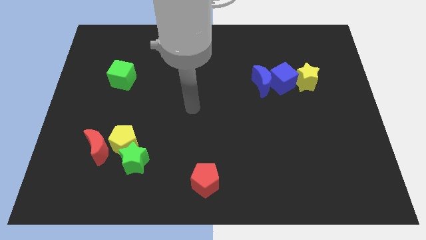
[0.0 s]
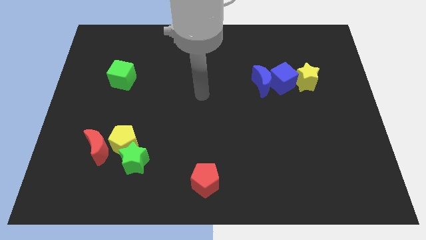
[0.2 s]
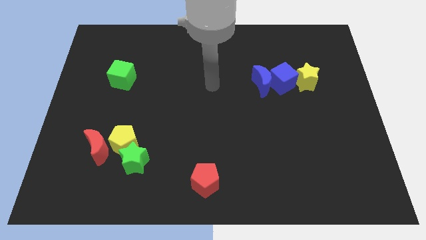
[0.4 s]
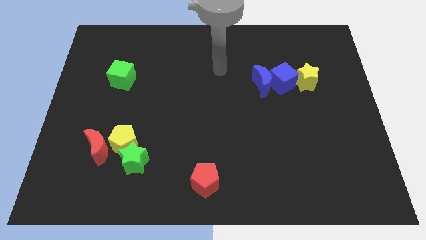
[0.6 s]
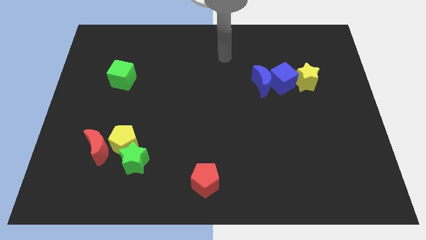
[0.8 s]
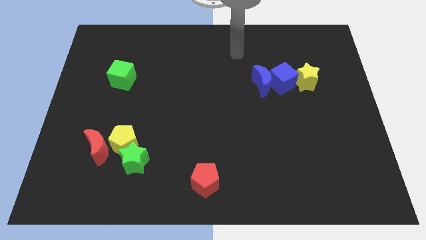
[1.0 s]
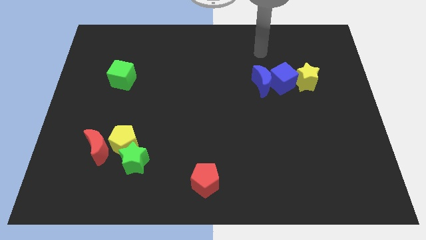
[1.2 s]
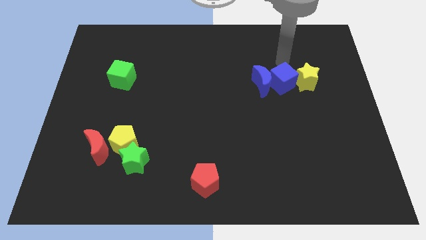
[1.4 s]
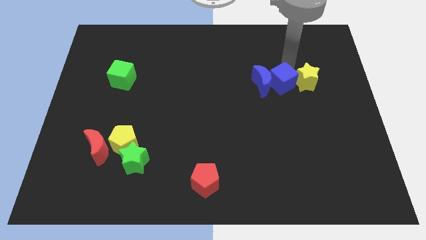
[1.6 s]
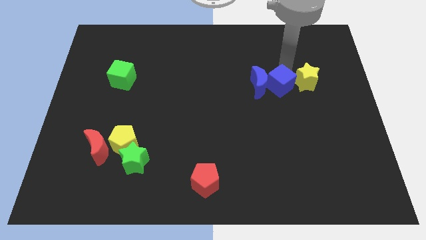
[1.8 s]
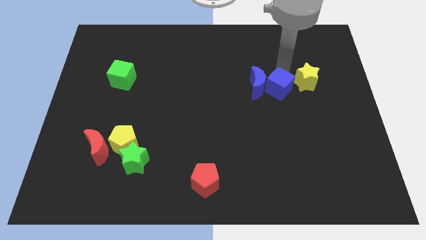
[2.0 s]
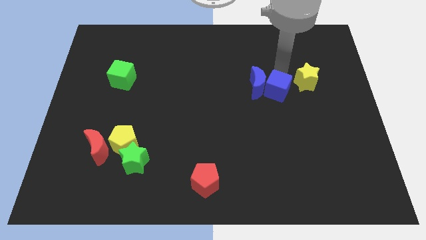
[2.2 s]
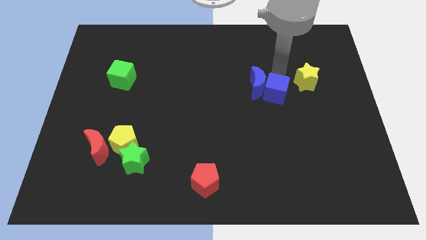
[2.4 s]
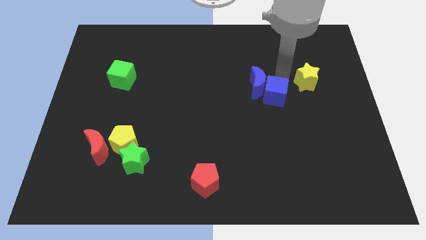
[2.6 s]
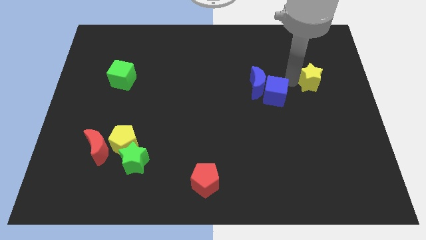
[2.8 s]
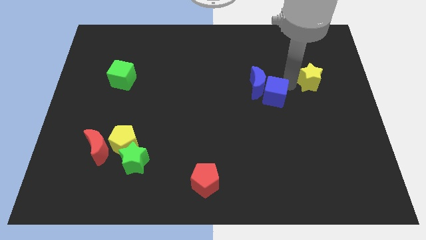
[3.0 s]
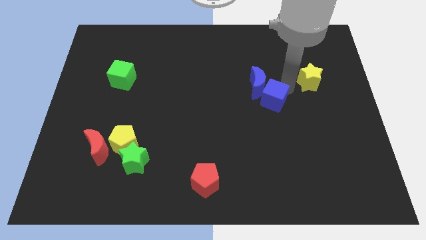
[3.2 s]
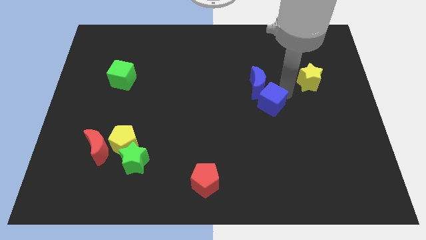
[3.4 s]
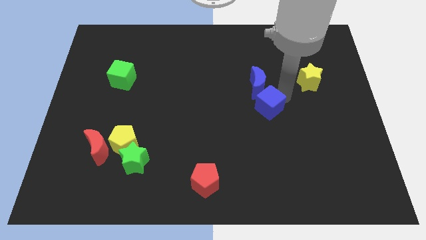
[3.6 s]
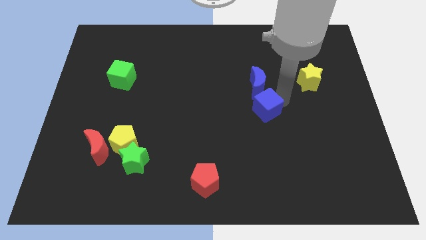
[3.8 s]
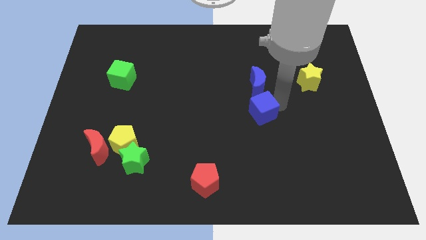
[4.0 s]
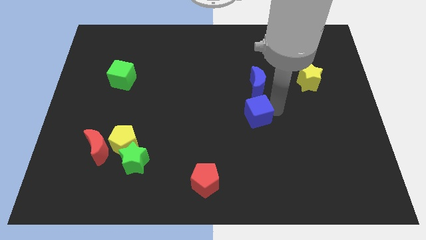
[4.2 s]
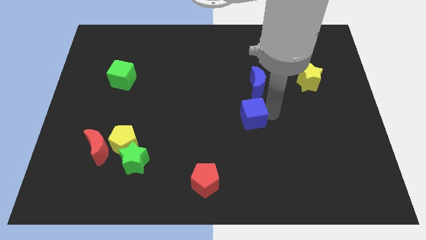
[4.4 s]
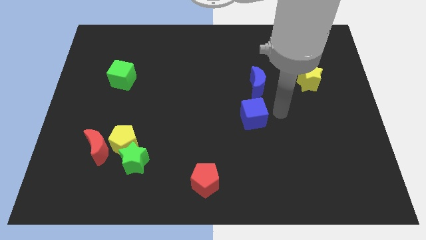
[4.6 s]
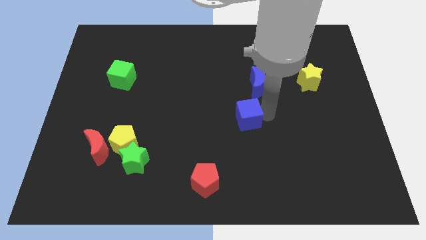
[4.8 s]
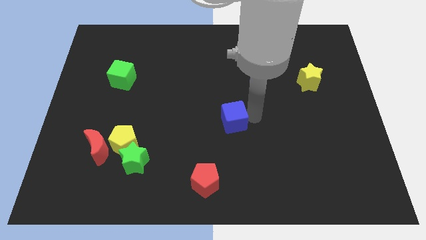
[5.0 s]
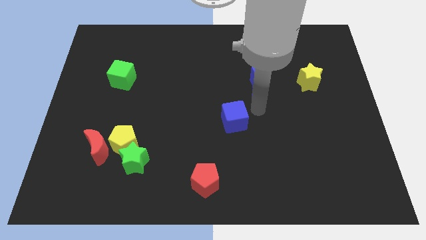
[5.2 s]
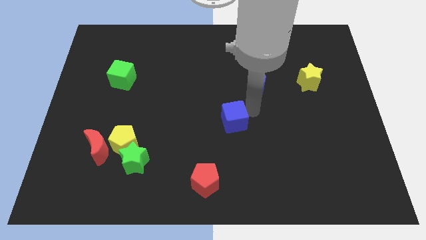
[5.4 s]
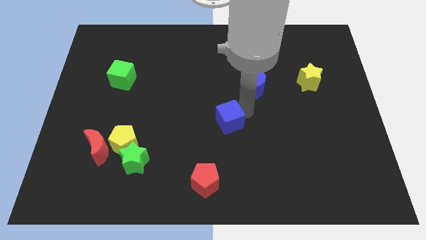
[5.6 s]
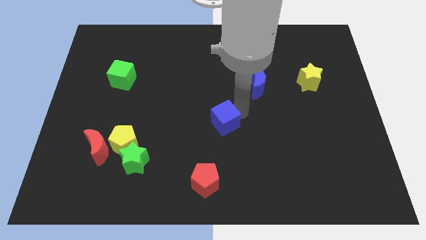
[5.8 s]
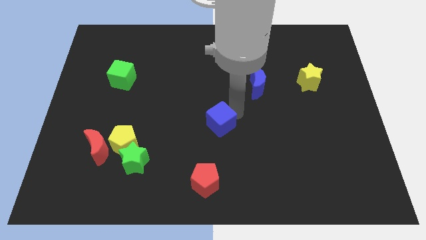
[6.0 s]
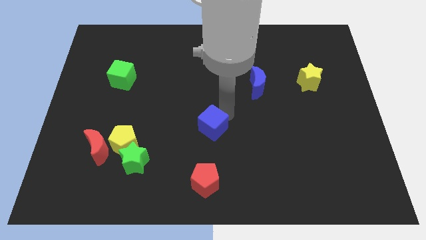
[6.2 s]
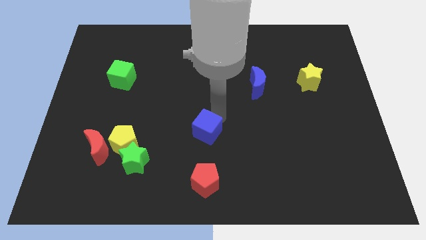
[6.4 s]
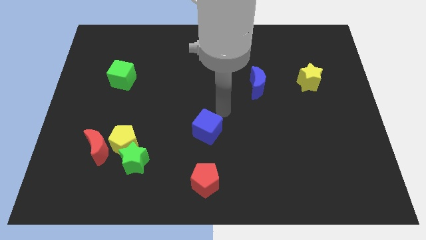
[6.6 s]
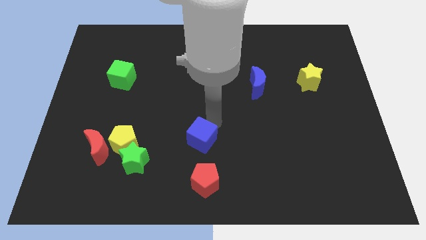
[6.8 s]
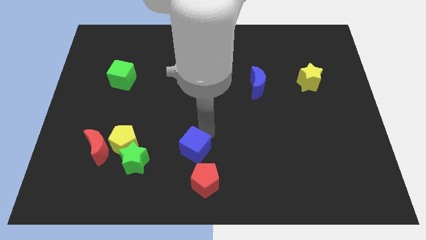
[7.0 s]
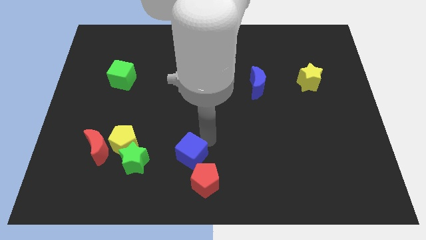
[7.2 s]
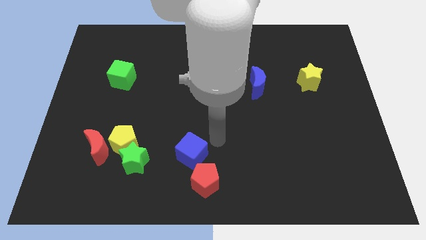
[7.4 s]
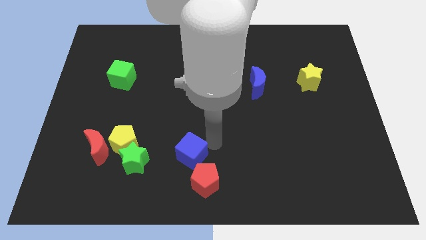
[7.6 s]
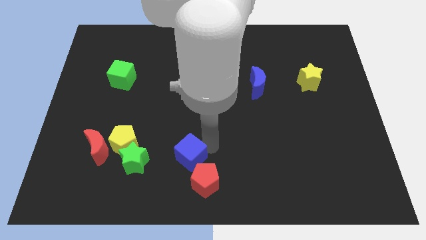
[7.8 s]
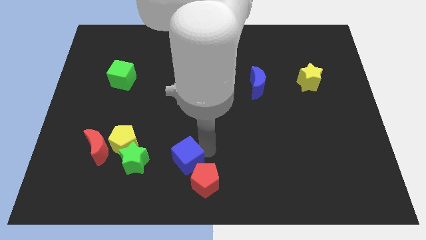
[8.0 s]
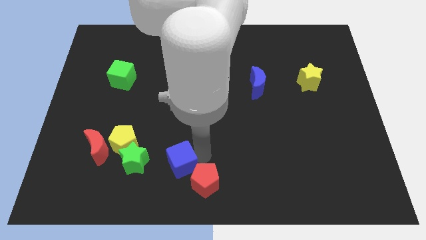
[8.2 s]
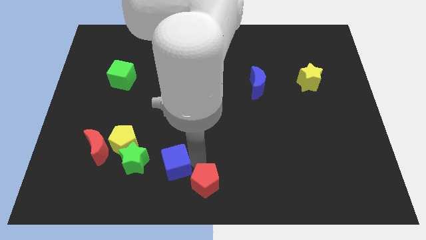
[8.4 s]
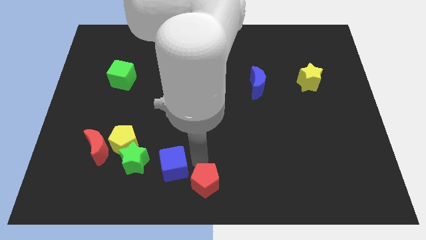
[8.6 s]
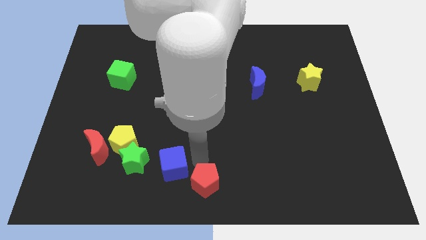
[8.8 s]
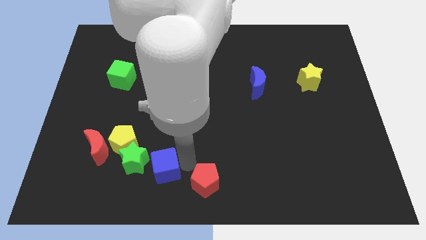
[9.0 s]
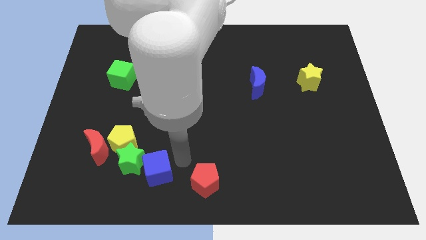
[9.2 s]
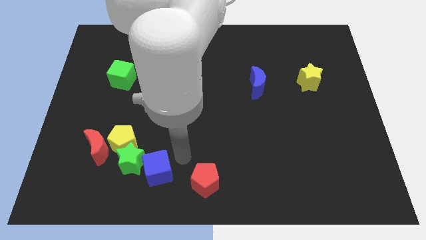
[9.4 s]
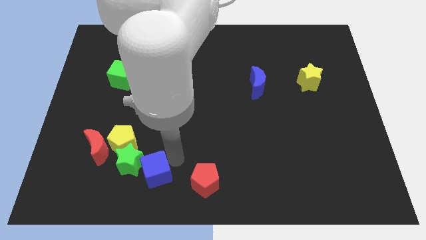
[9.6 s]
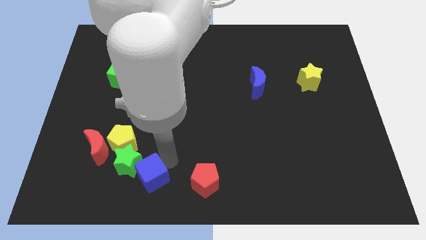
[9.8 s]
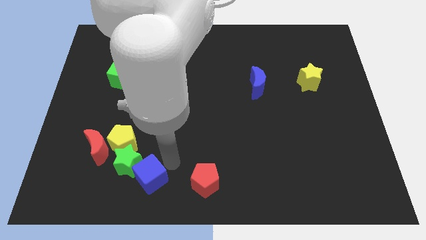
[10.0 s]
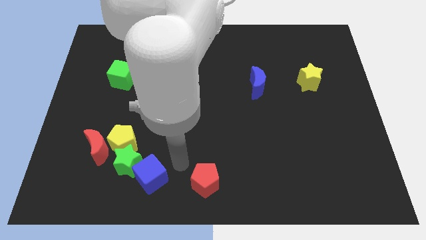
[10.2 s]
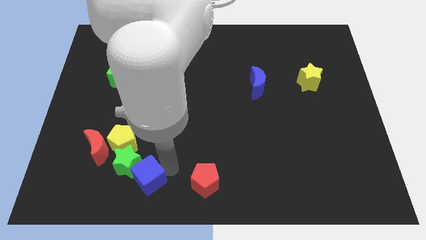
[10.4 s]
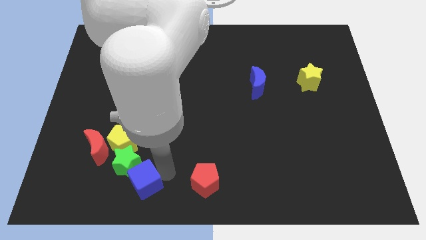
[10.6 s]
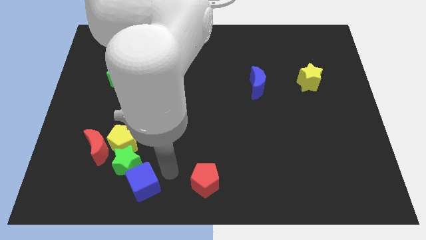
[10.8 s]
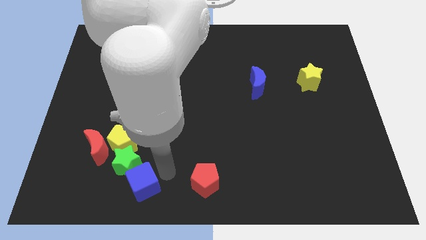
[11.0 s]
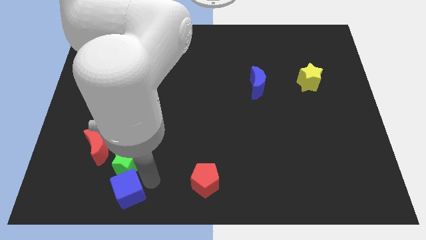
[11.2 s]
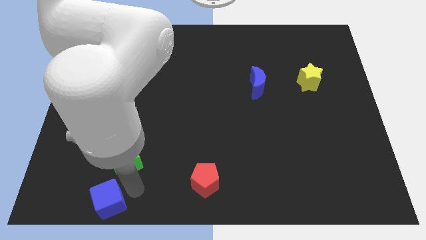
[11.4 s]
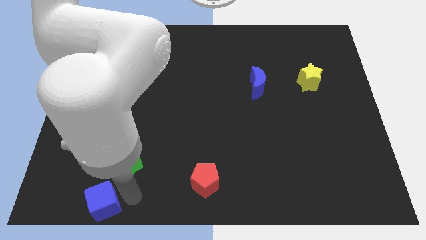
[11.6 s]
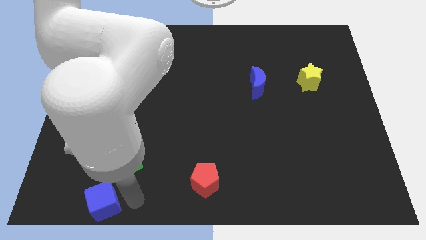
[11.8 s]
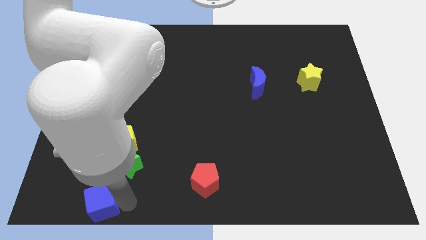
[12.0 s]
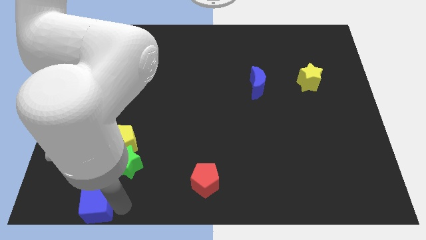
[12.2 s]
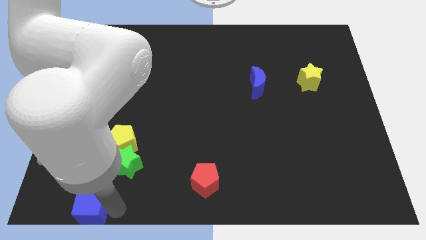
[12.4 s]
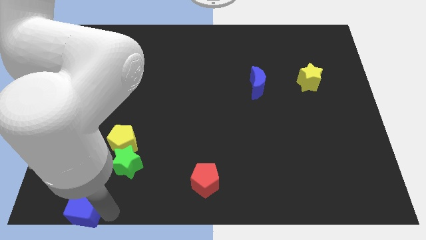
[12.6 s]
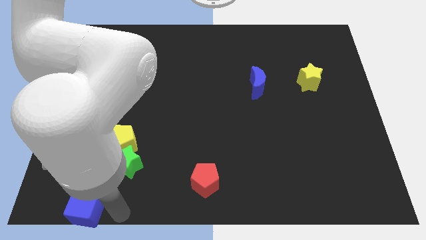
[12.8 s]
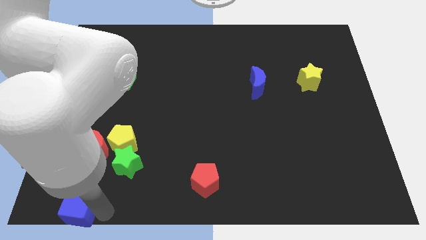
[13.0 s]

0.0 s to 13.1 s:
push the blue cube to the bottom left corner
